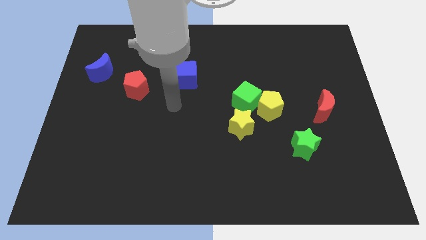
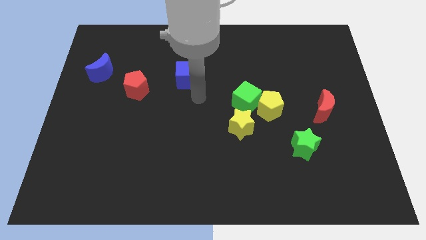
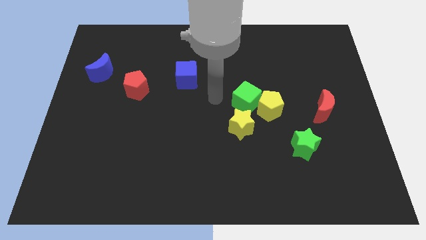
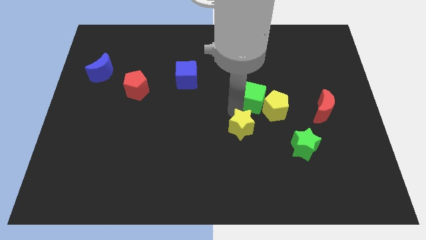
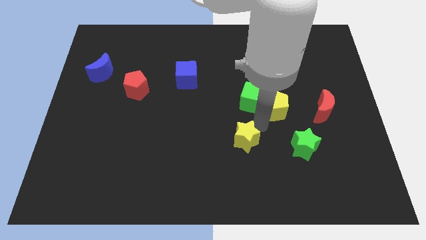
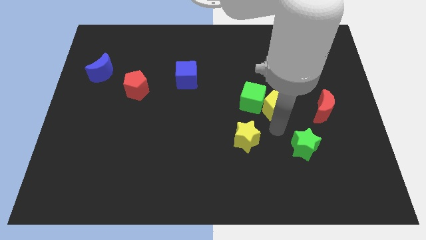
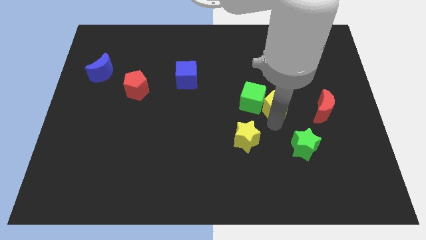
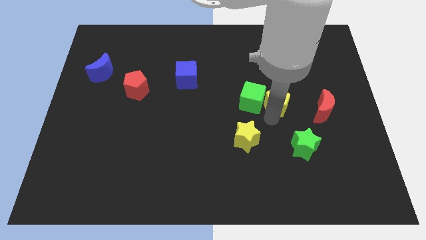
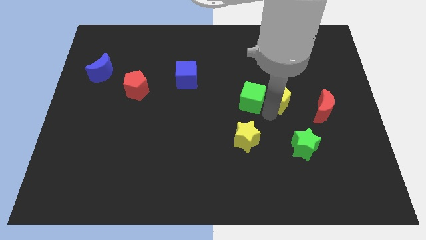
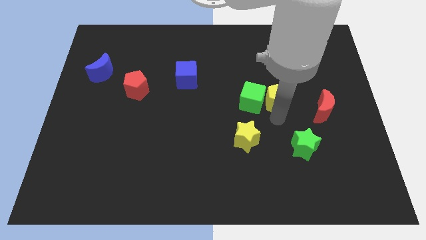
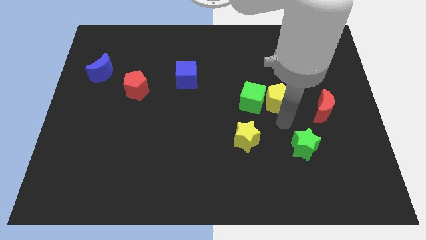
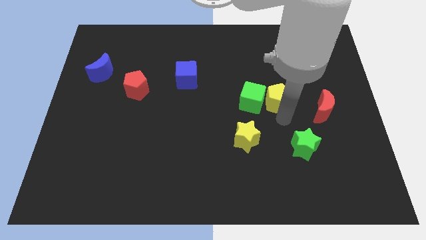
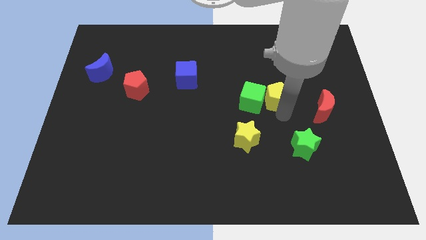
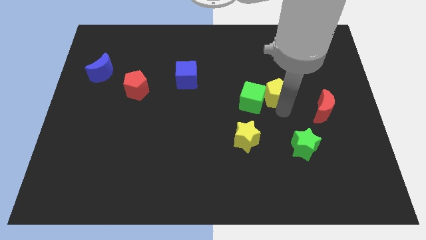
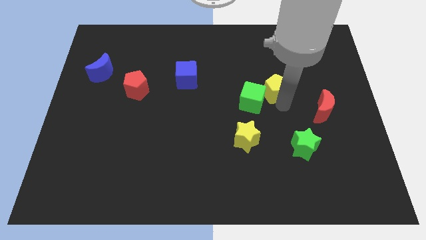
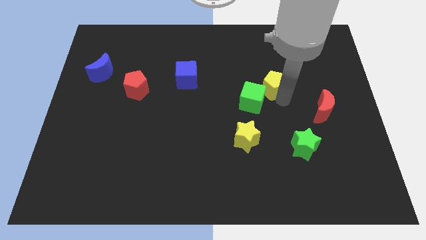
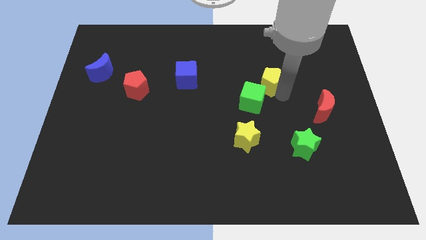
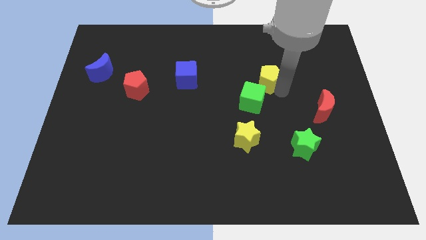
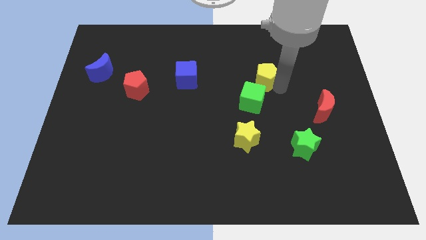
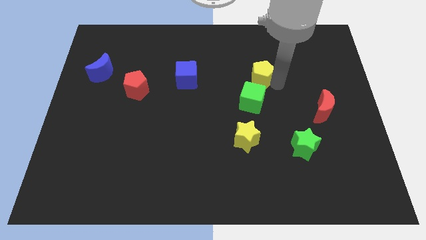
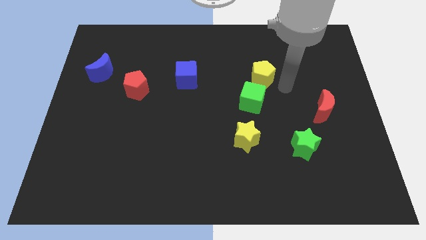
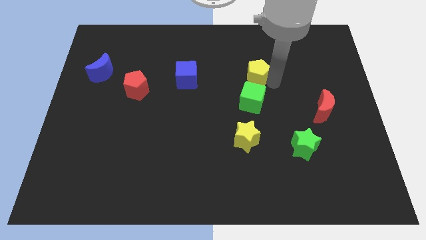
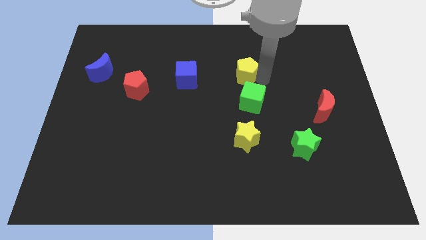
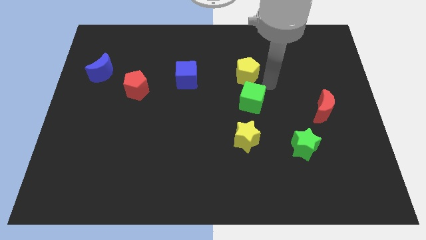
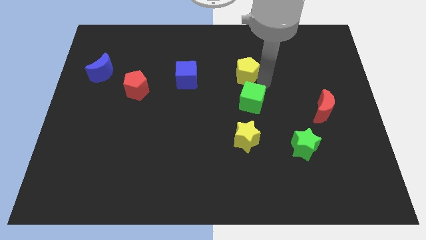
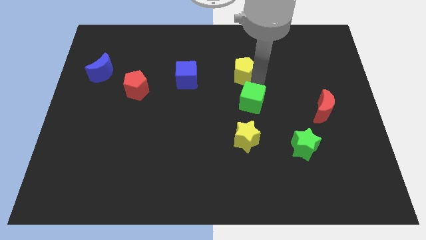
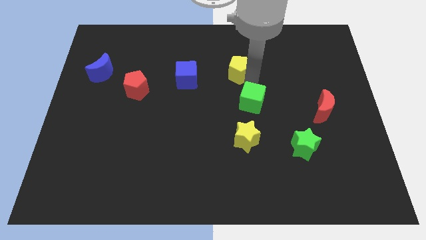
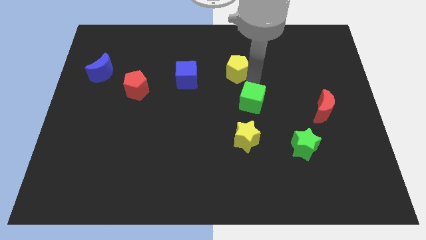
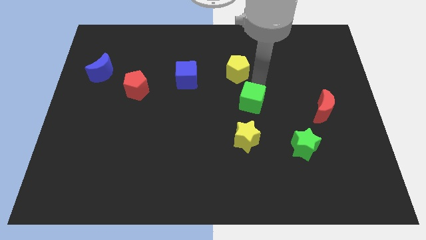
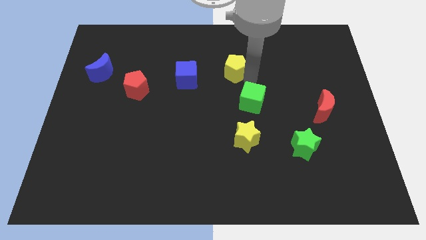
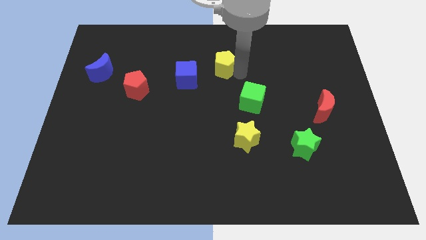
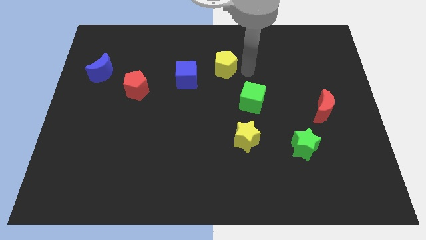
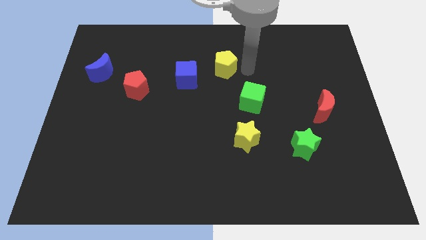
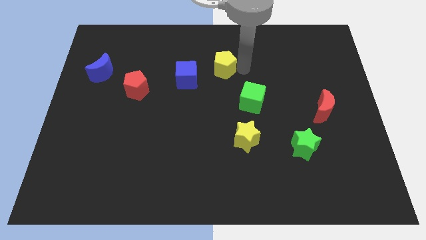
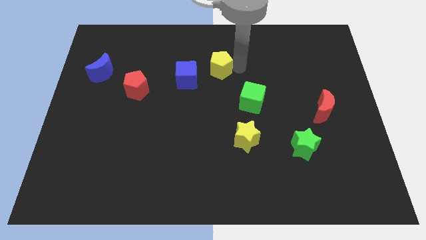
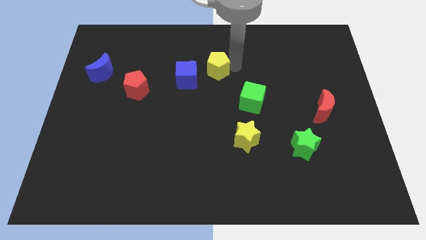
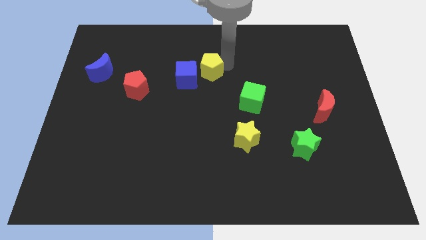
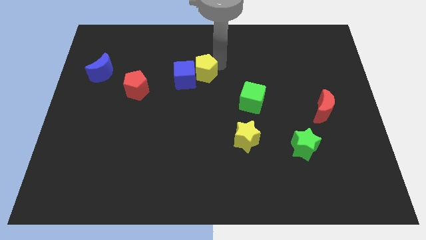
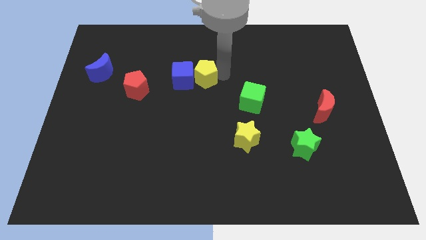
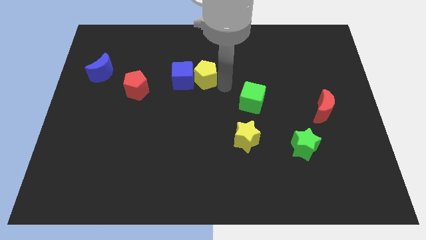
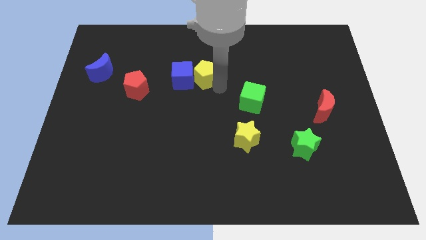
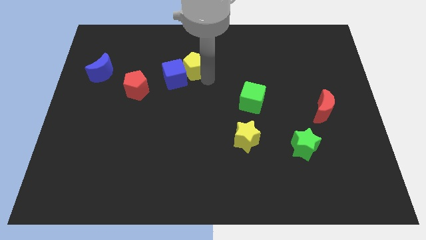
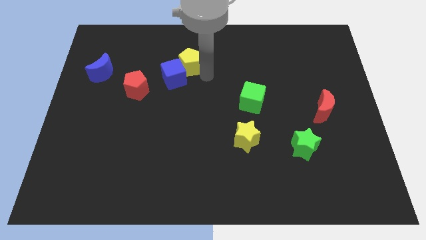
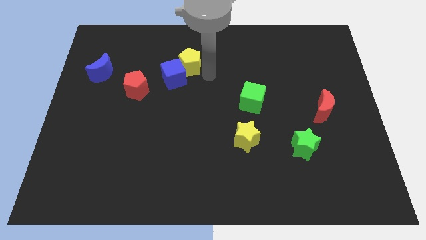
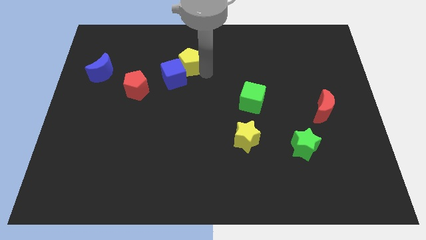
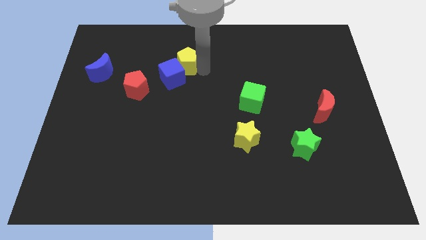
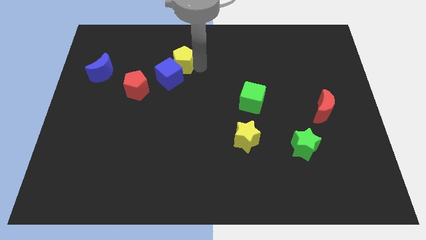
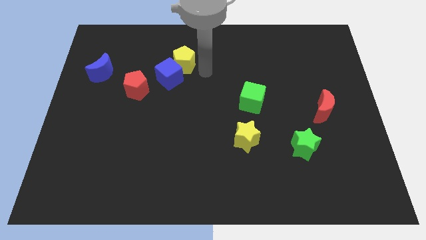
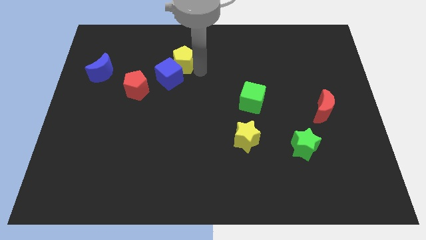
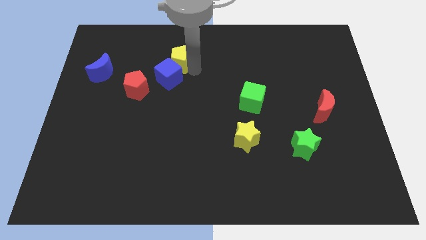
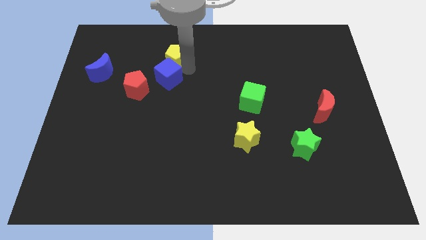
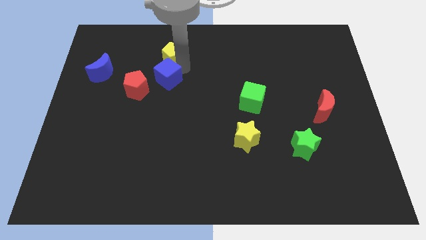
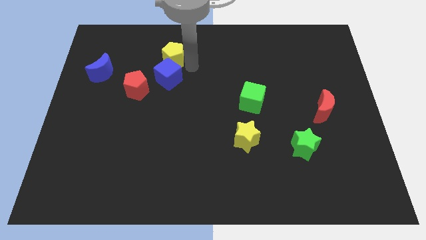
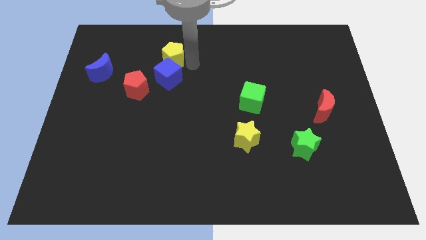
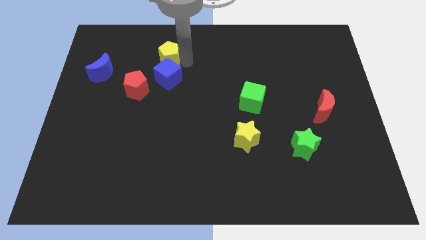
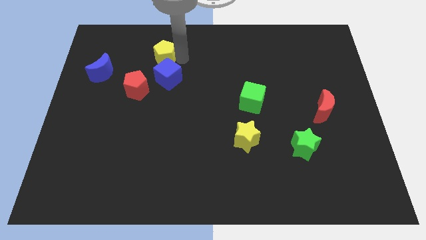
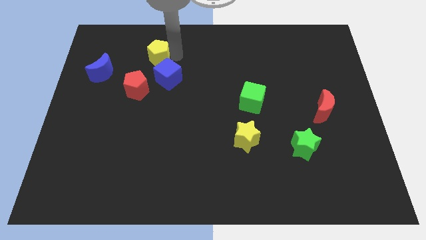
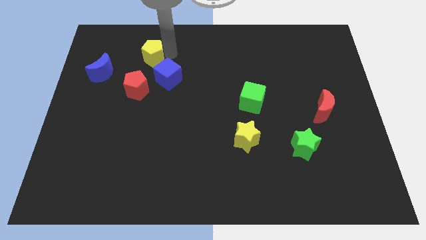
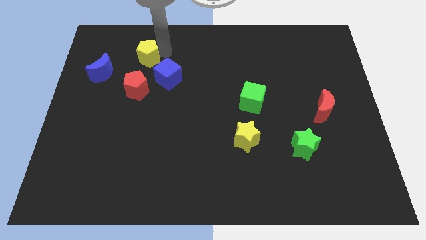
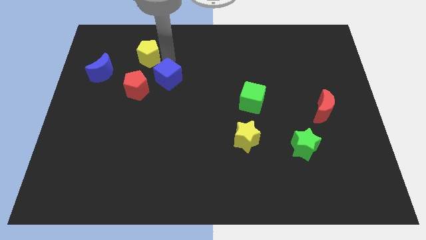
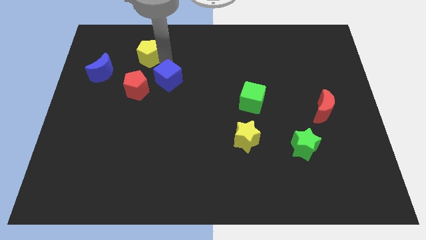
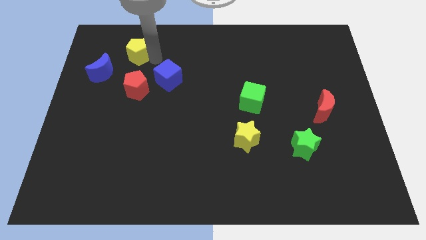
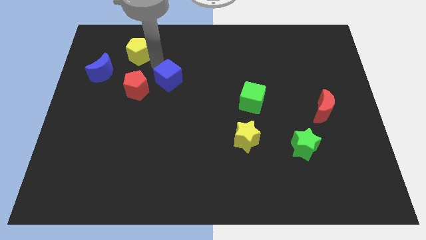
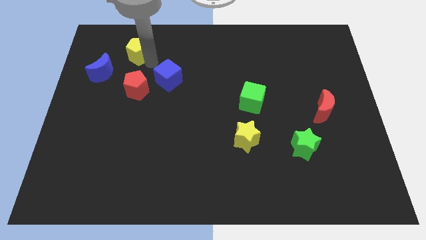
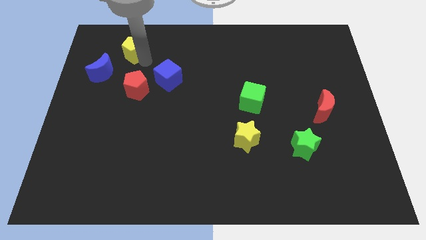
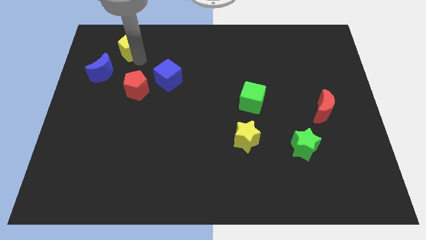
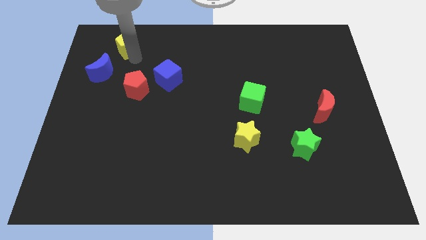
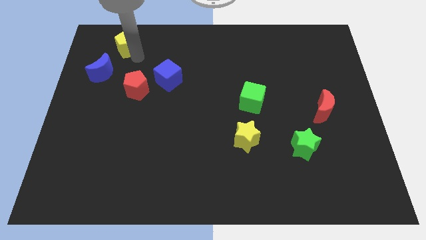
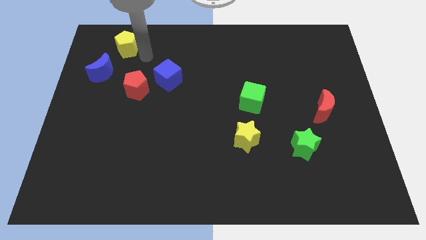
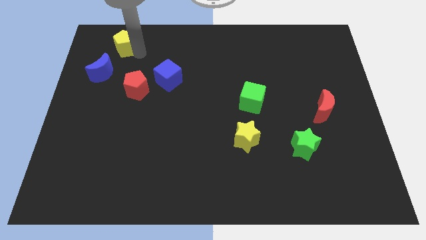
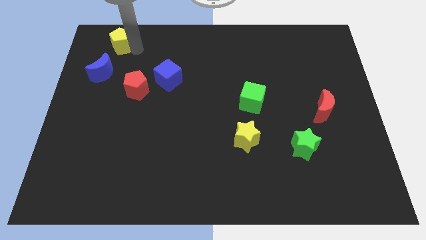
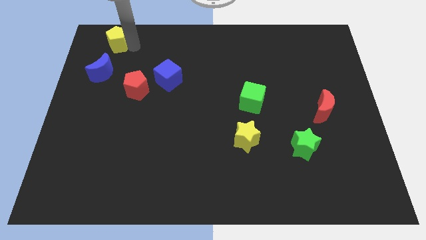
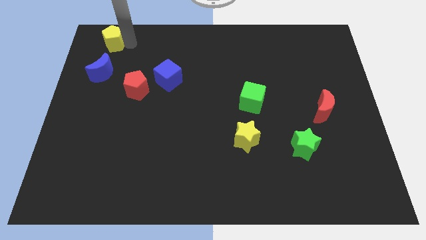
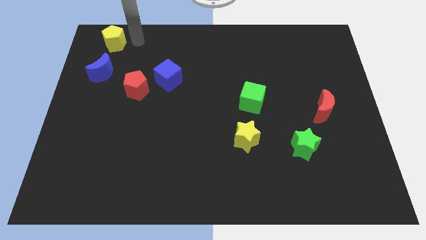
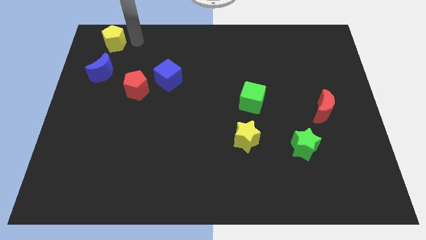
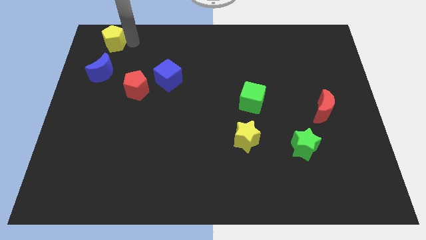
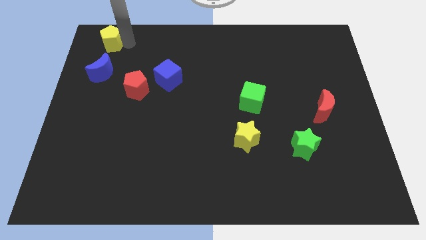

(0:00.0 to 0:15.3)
move the yellow pentagon to the top left corner

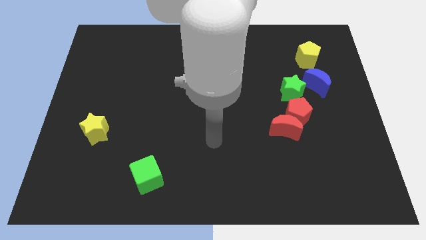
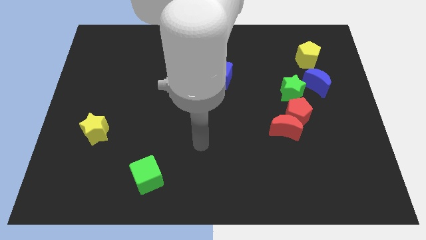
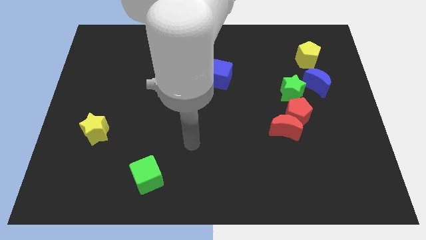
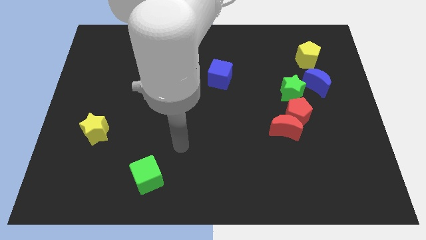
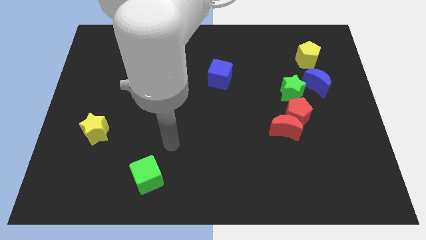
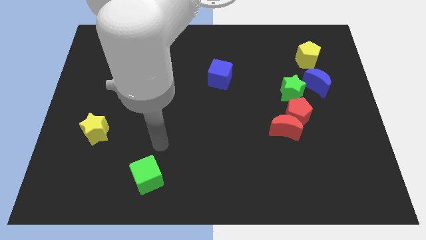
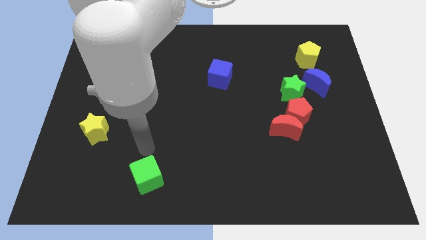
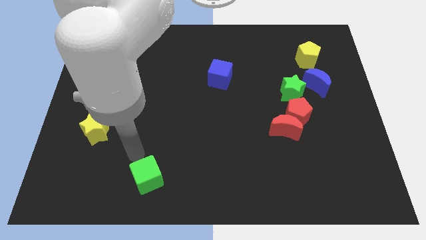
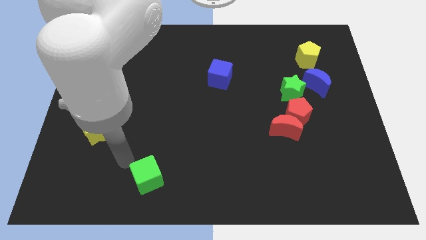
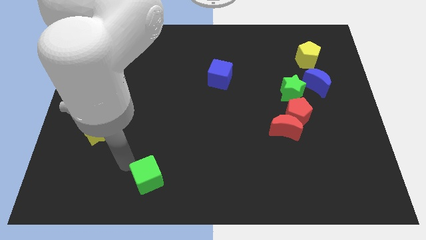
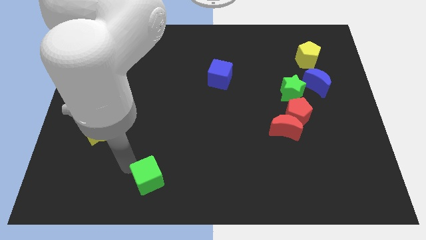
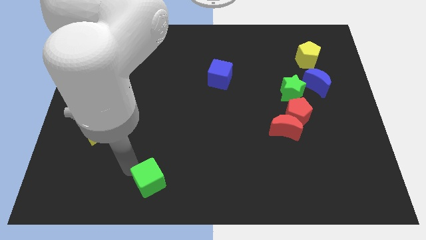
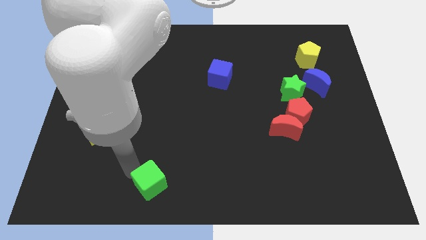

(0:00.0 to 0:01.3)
put the green cube to the bottom side
